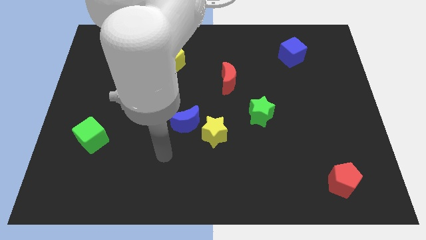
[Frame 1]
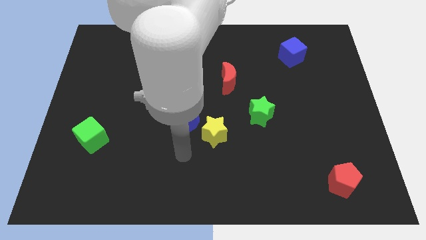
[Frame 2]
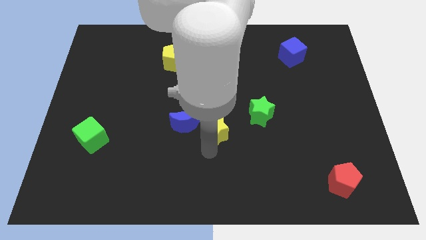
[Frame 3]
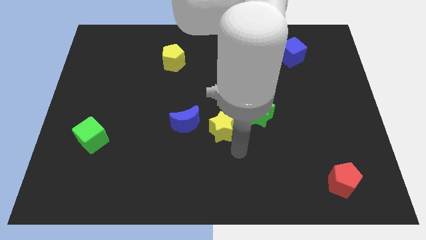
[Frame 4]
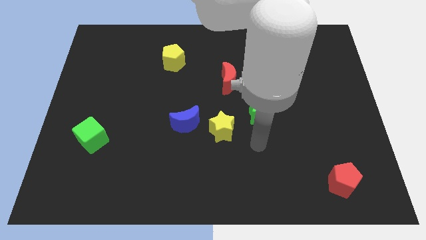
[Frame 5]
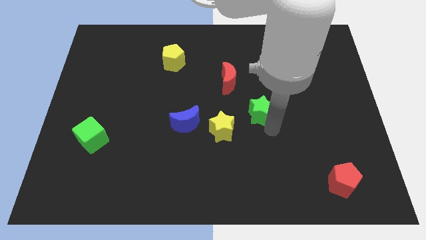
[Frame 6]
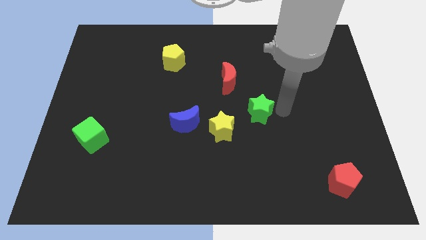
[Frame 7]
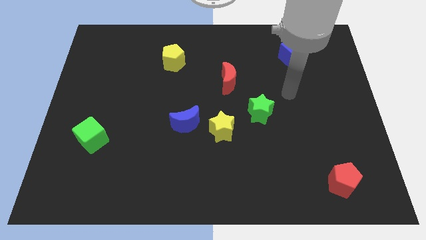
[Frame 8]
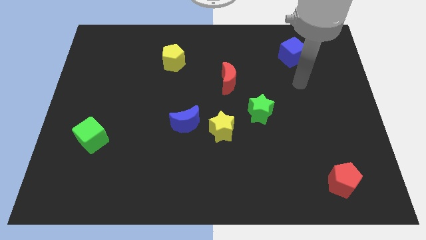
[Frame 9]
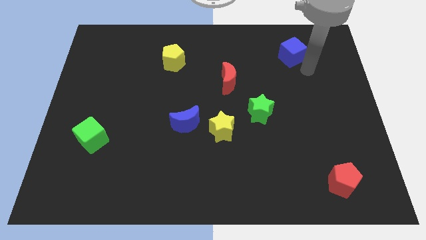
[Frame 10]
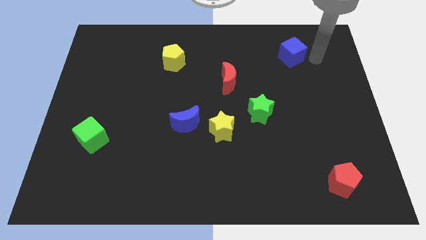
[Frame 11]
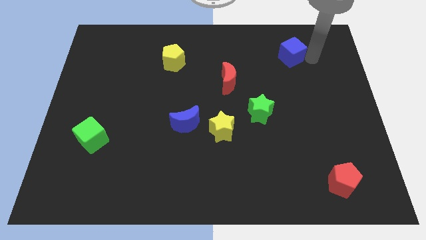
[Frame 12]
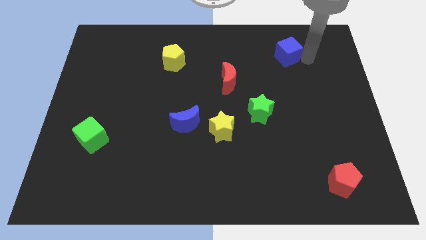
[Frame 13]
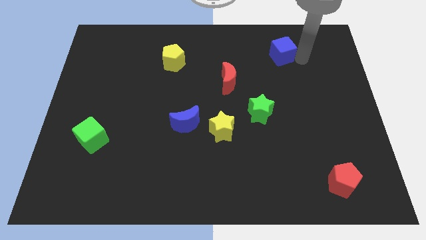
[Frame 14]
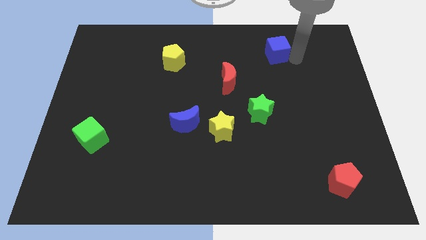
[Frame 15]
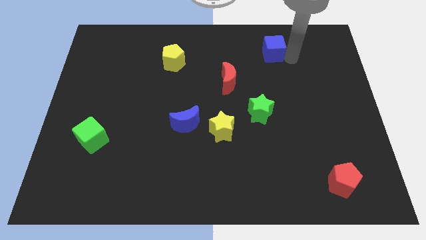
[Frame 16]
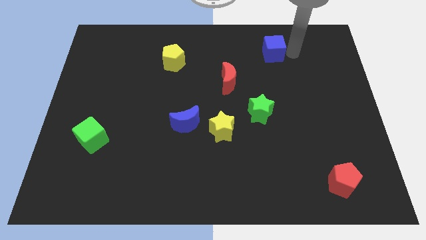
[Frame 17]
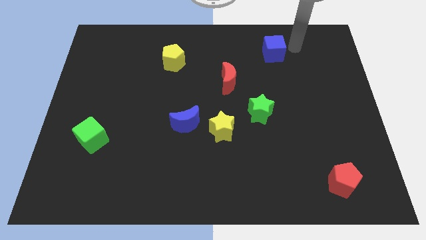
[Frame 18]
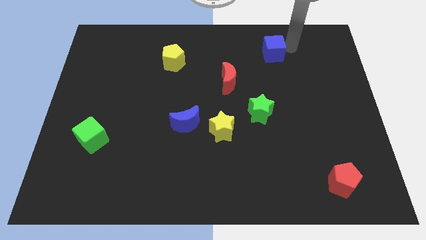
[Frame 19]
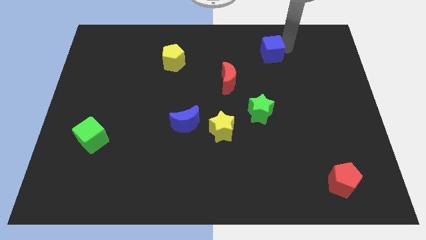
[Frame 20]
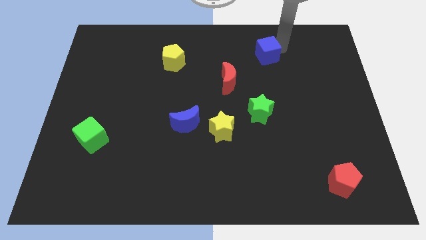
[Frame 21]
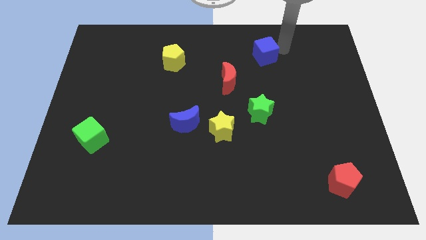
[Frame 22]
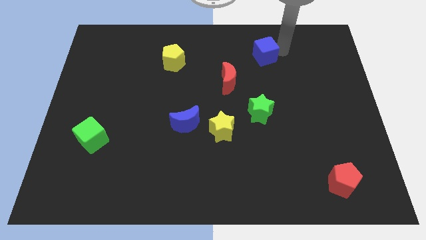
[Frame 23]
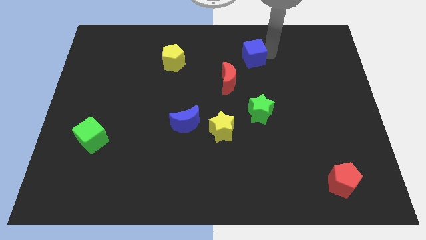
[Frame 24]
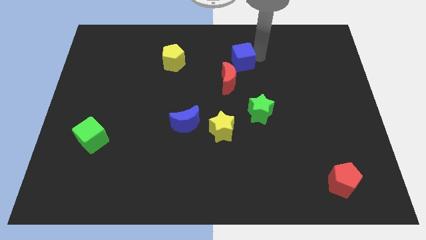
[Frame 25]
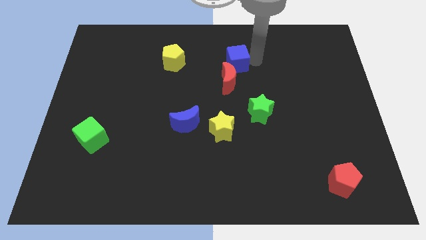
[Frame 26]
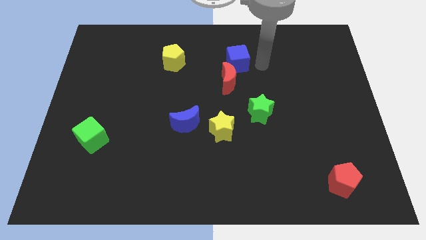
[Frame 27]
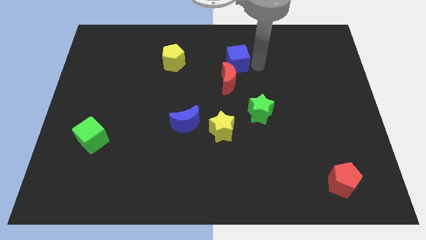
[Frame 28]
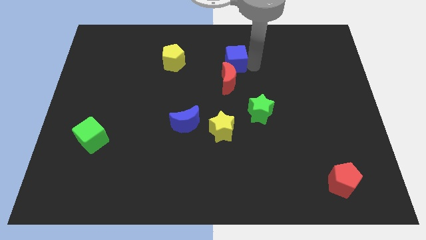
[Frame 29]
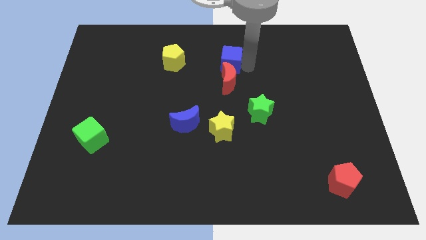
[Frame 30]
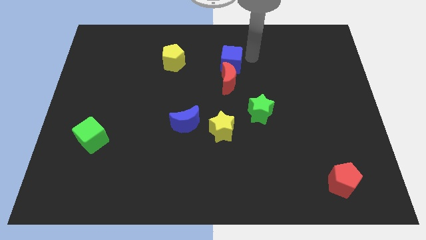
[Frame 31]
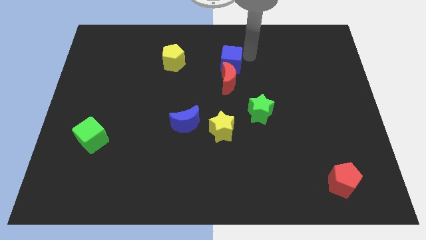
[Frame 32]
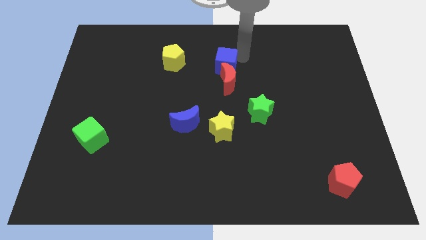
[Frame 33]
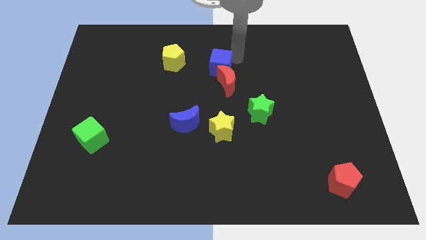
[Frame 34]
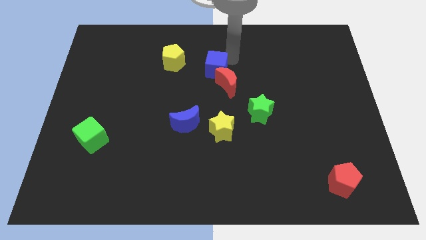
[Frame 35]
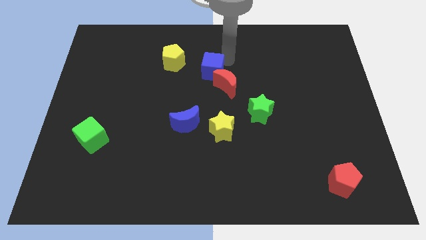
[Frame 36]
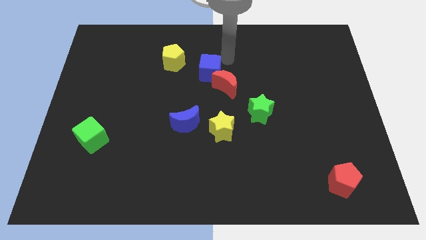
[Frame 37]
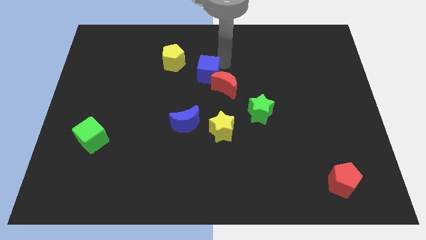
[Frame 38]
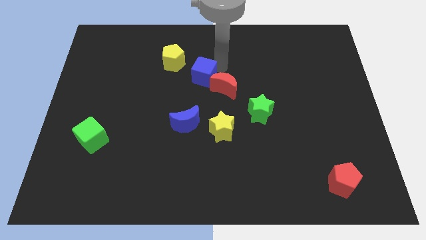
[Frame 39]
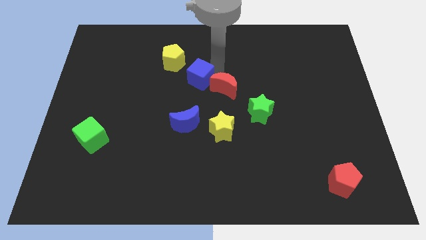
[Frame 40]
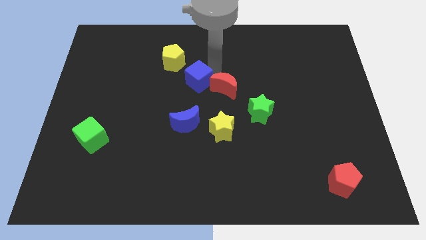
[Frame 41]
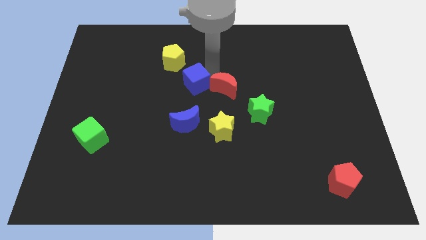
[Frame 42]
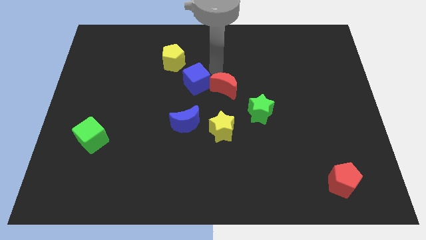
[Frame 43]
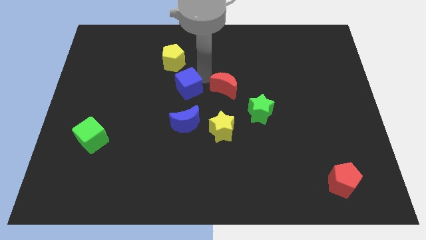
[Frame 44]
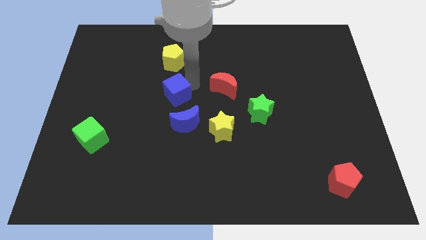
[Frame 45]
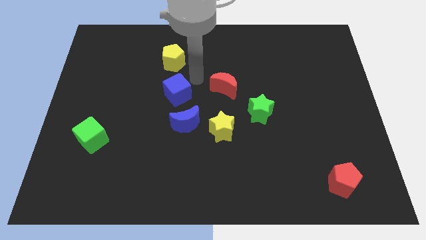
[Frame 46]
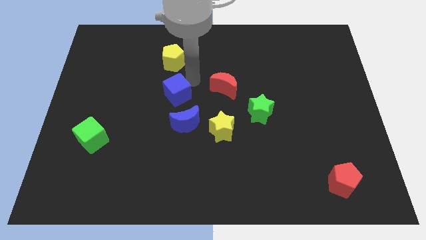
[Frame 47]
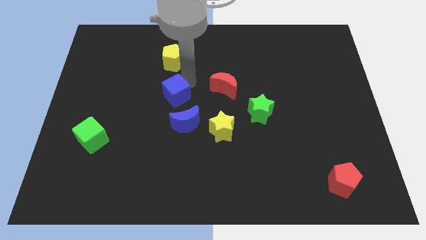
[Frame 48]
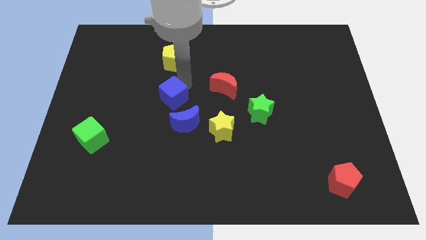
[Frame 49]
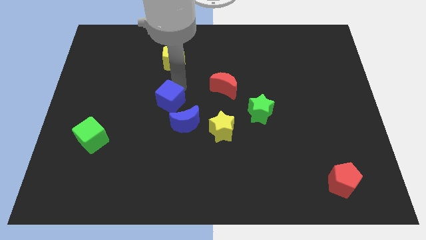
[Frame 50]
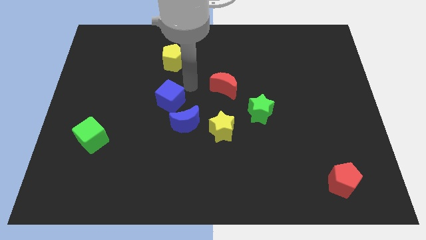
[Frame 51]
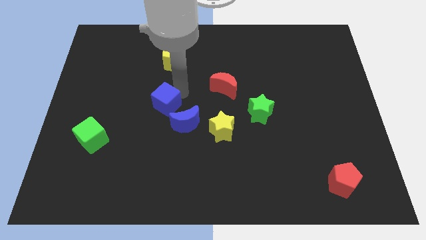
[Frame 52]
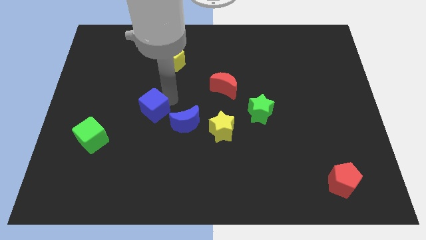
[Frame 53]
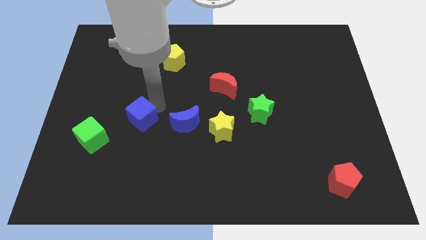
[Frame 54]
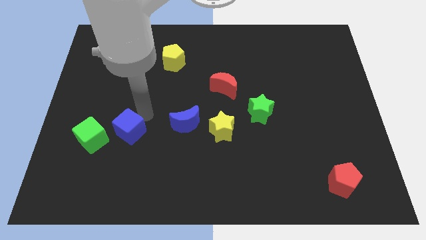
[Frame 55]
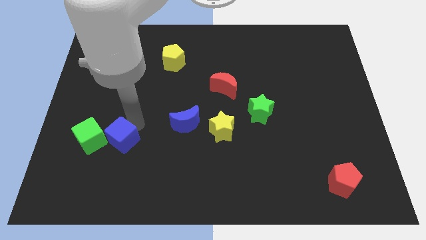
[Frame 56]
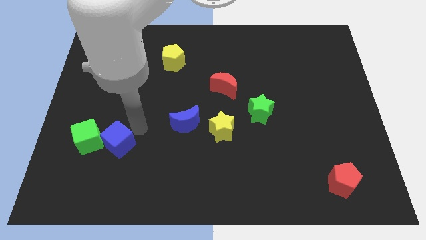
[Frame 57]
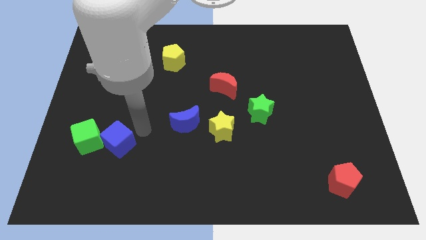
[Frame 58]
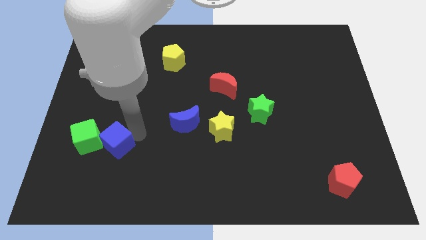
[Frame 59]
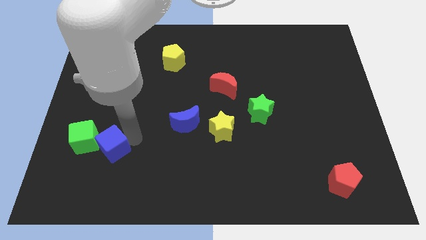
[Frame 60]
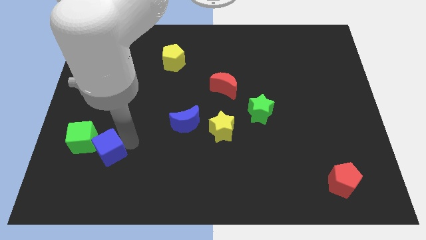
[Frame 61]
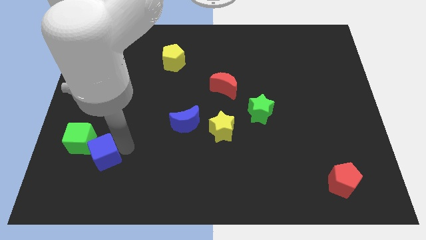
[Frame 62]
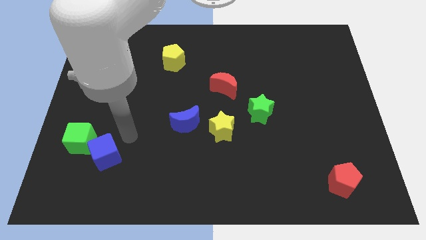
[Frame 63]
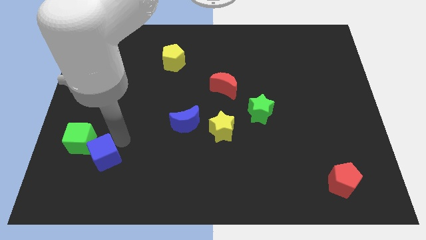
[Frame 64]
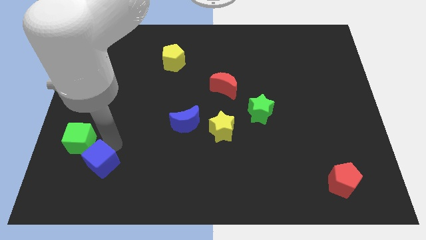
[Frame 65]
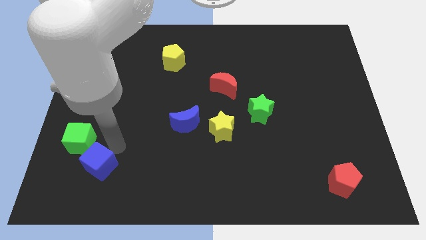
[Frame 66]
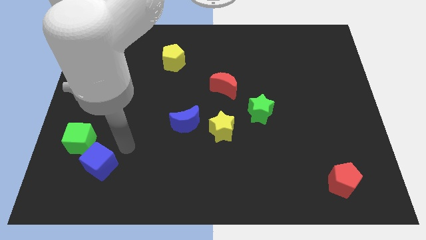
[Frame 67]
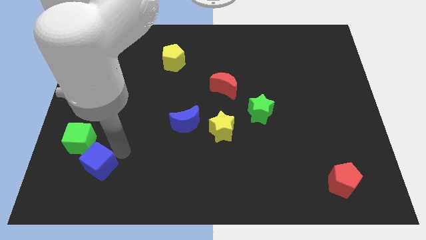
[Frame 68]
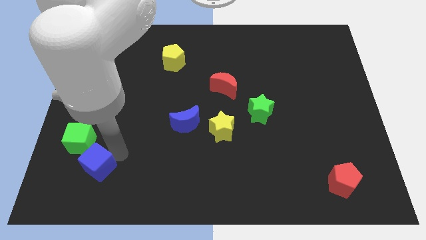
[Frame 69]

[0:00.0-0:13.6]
put the blue cube to the bottom of the green cube
